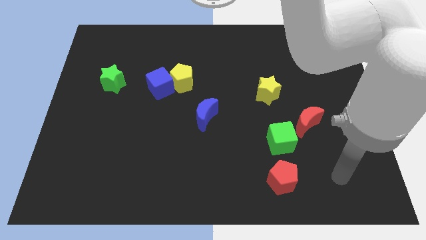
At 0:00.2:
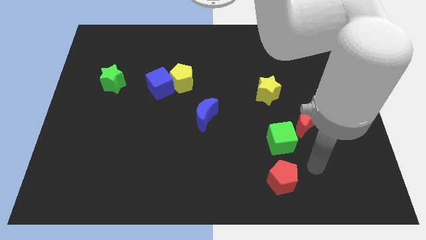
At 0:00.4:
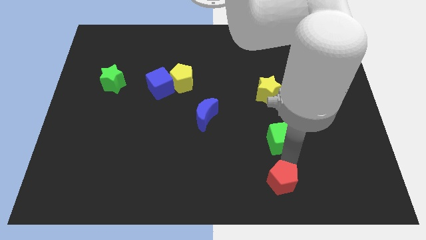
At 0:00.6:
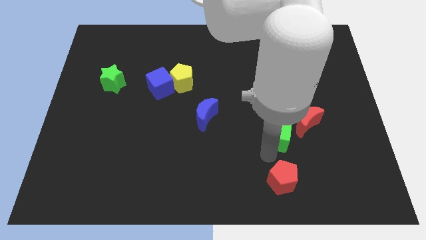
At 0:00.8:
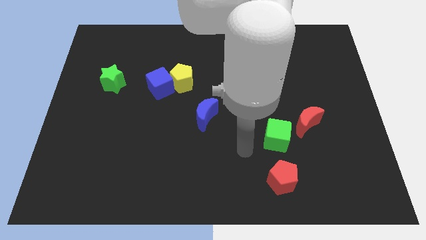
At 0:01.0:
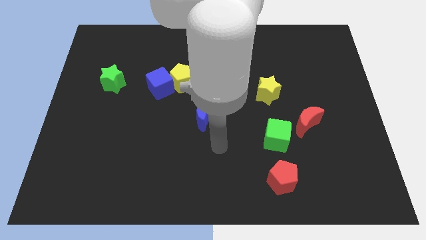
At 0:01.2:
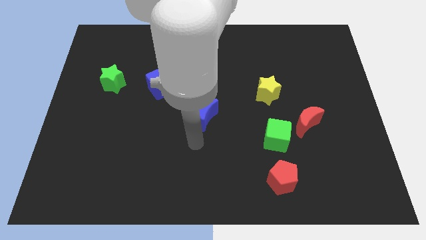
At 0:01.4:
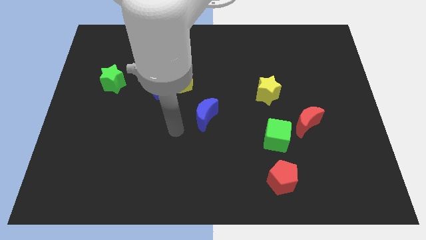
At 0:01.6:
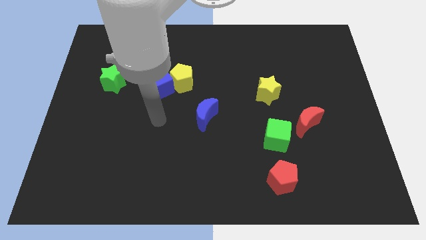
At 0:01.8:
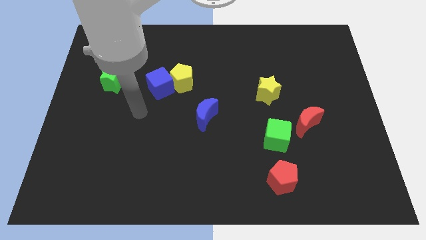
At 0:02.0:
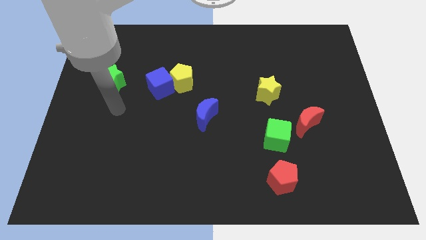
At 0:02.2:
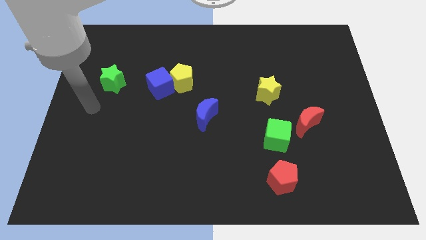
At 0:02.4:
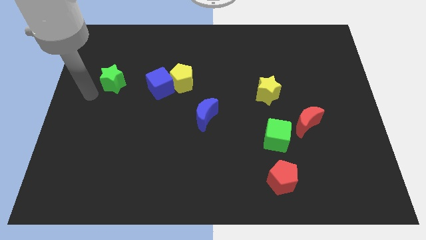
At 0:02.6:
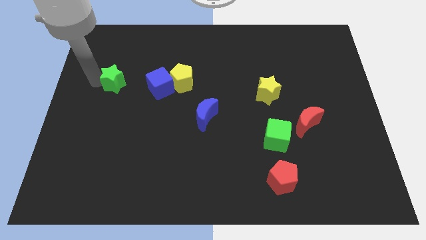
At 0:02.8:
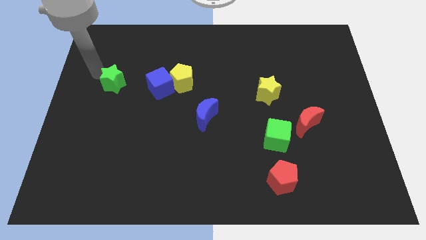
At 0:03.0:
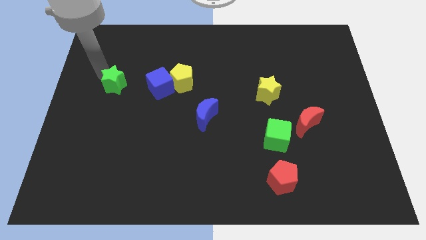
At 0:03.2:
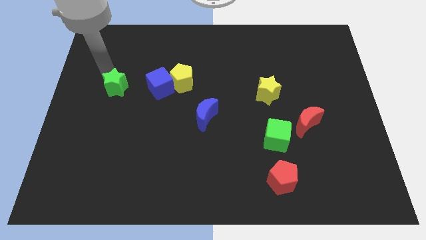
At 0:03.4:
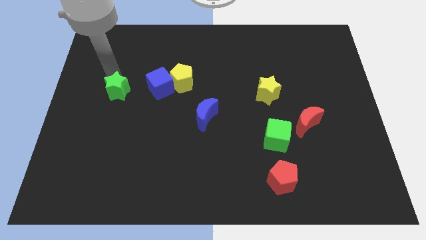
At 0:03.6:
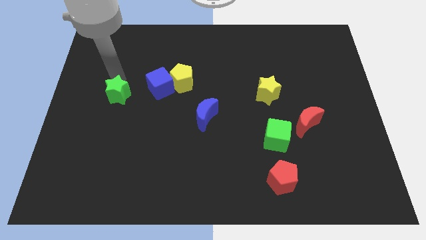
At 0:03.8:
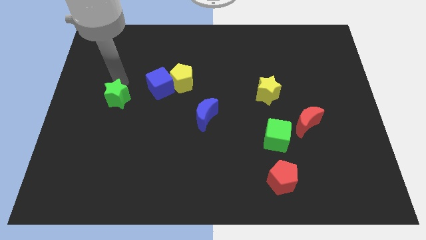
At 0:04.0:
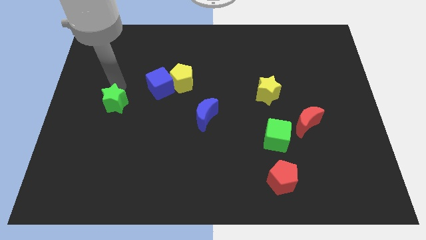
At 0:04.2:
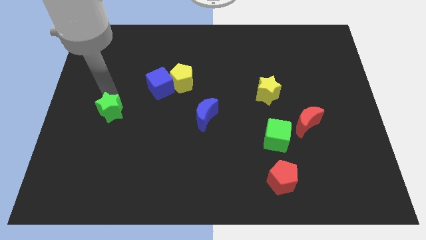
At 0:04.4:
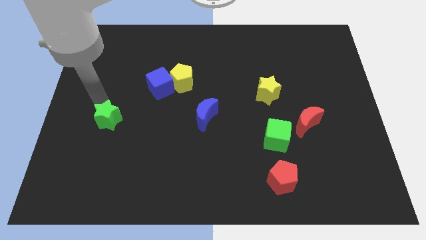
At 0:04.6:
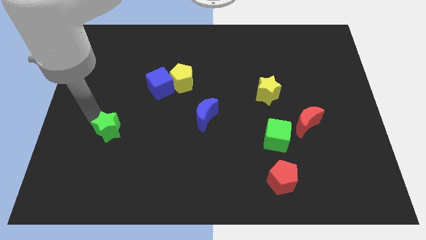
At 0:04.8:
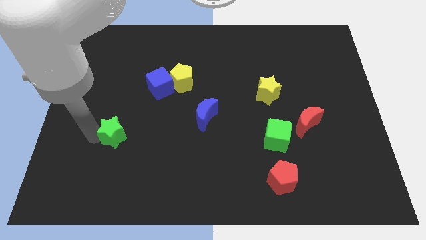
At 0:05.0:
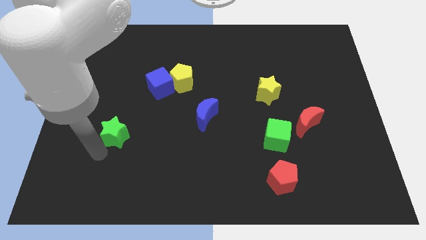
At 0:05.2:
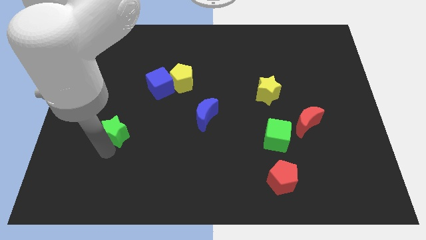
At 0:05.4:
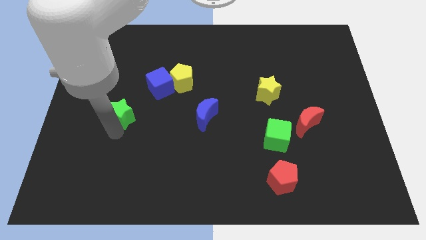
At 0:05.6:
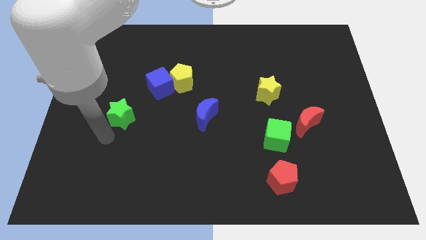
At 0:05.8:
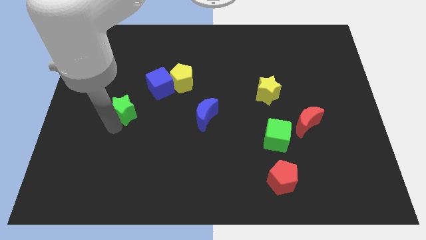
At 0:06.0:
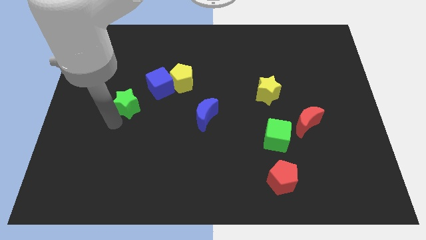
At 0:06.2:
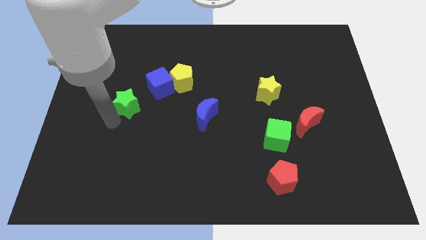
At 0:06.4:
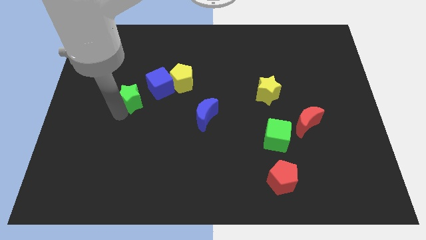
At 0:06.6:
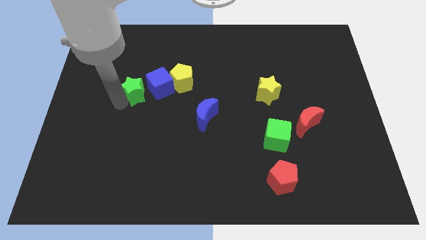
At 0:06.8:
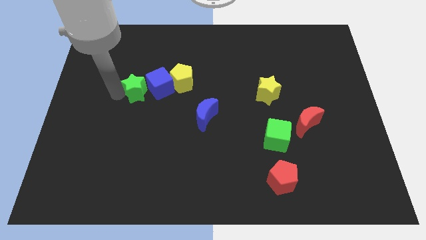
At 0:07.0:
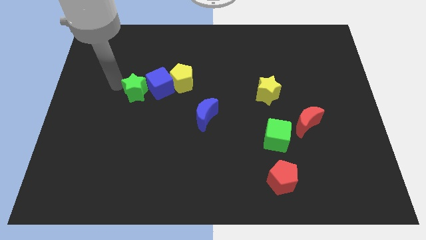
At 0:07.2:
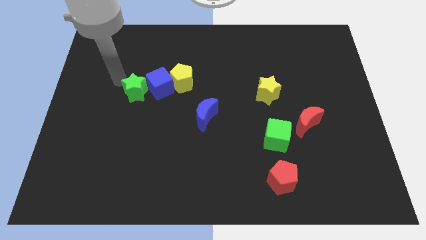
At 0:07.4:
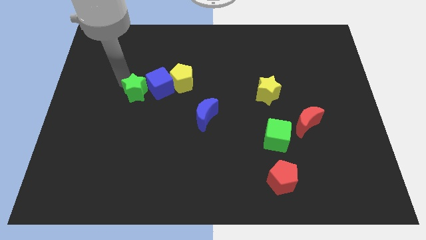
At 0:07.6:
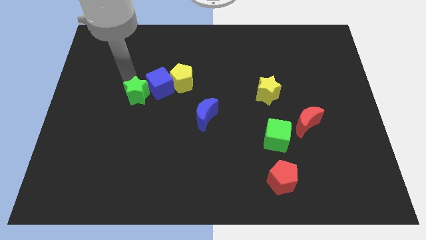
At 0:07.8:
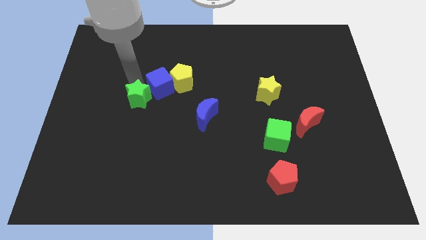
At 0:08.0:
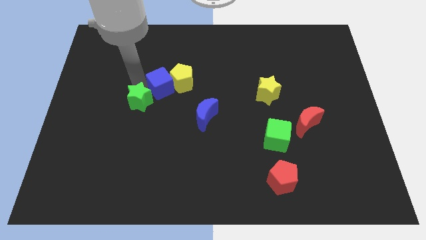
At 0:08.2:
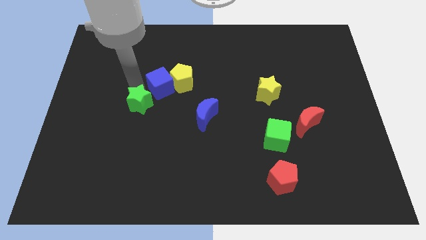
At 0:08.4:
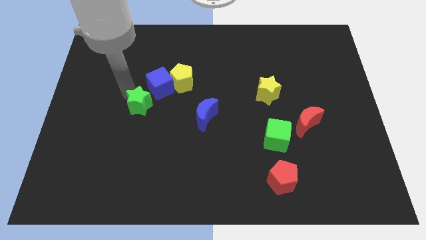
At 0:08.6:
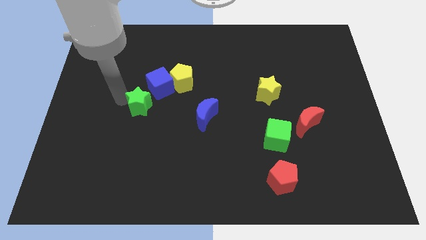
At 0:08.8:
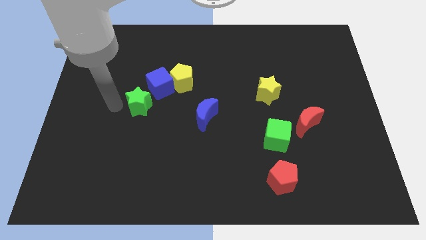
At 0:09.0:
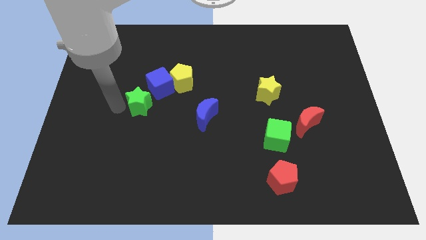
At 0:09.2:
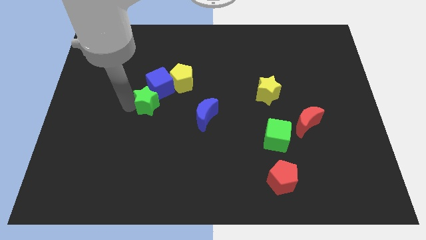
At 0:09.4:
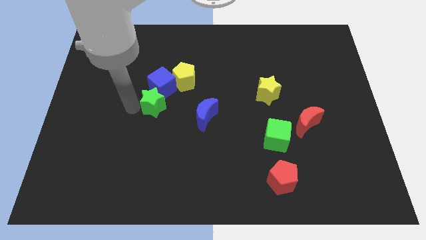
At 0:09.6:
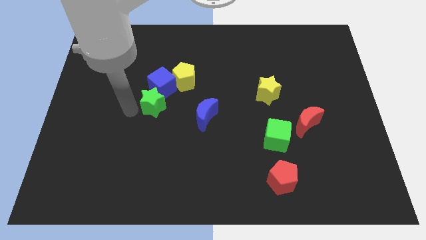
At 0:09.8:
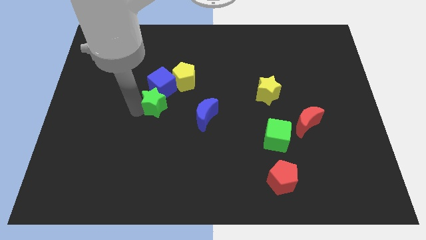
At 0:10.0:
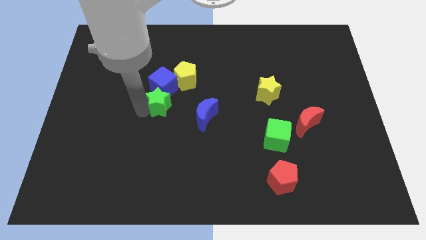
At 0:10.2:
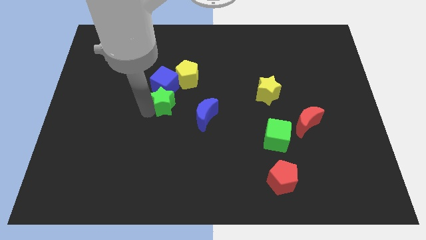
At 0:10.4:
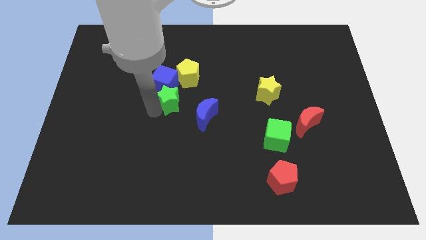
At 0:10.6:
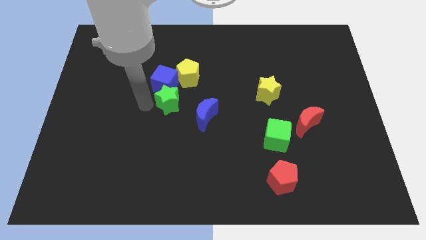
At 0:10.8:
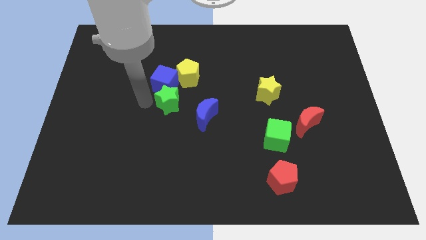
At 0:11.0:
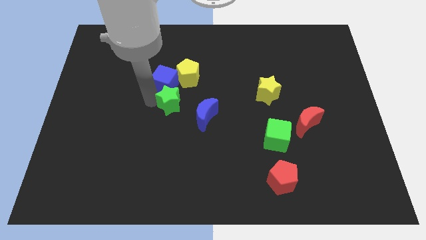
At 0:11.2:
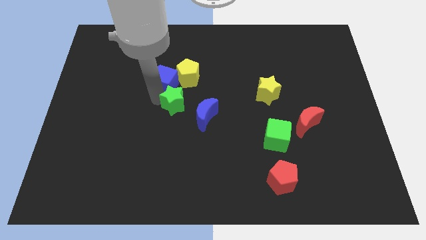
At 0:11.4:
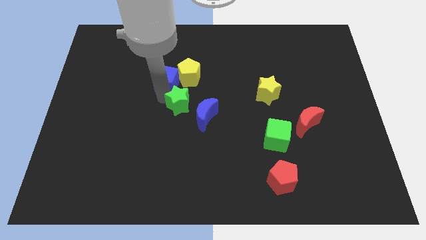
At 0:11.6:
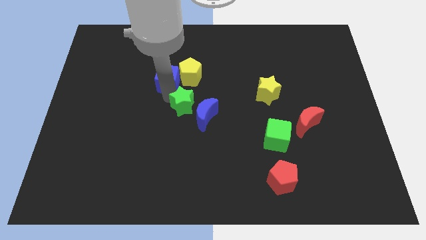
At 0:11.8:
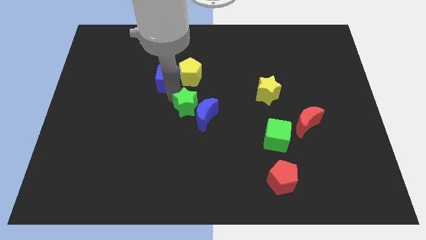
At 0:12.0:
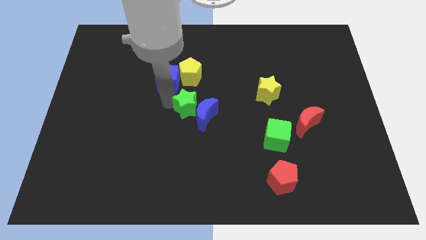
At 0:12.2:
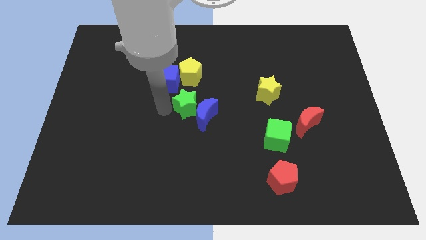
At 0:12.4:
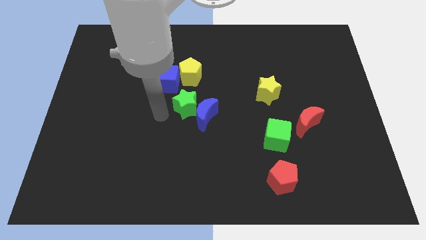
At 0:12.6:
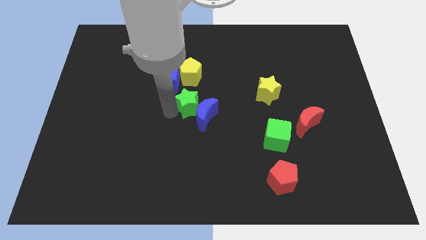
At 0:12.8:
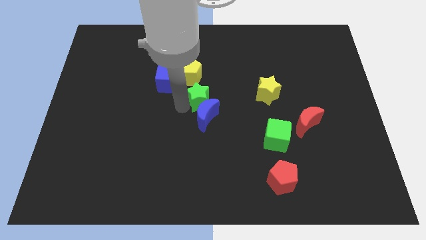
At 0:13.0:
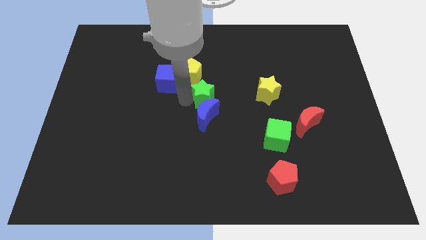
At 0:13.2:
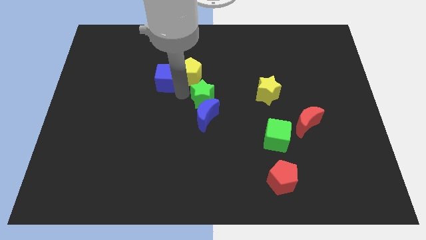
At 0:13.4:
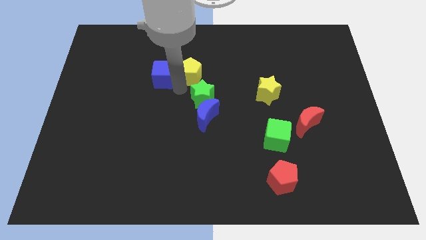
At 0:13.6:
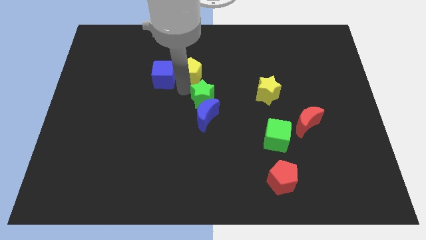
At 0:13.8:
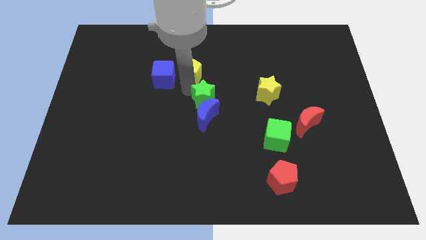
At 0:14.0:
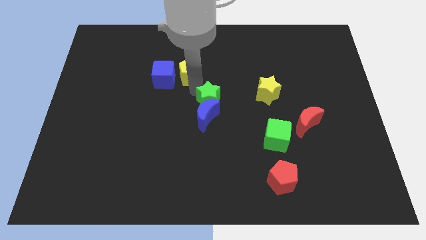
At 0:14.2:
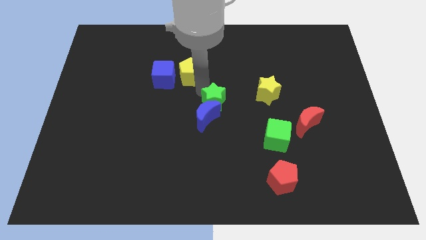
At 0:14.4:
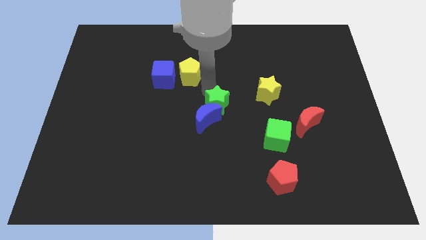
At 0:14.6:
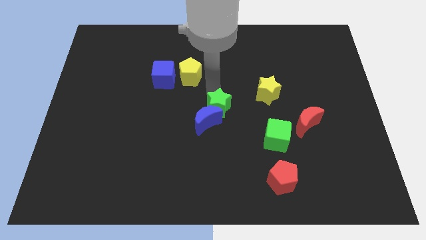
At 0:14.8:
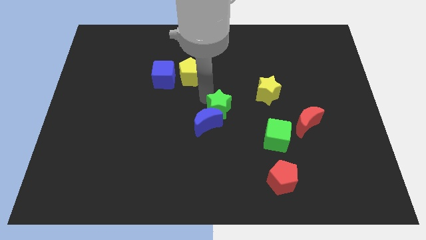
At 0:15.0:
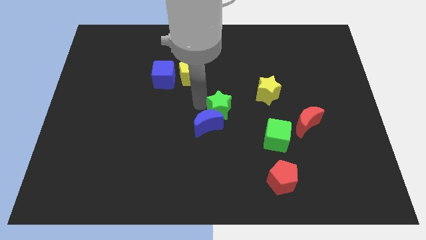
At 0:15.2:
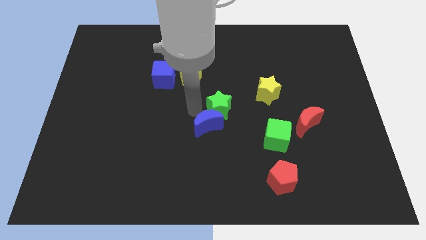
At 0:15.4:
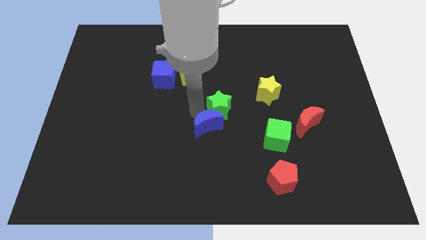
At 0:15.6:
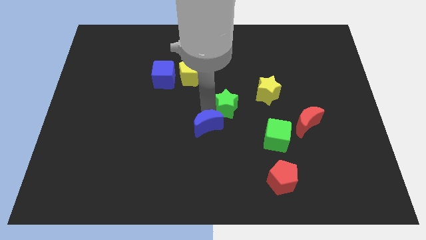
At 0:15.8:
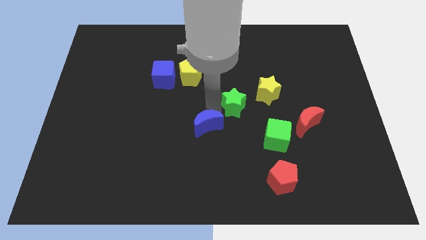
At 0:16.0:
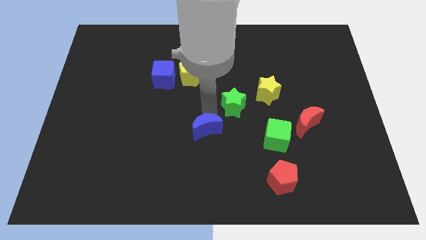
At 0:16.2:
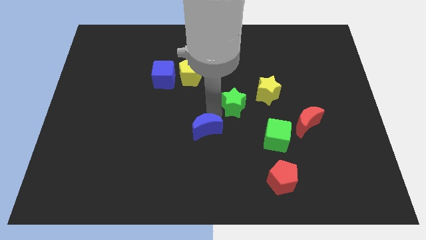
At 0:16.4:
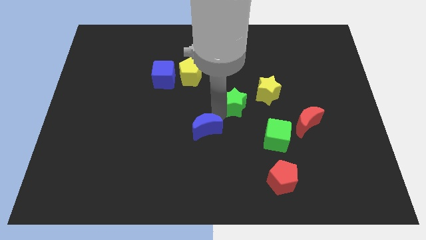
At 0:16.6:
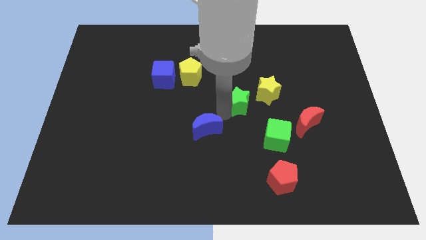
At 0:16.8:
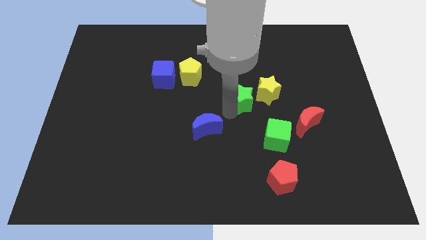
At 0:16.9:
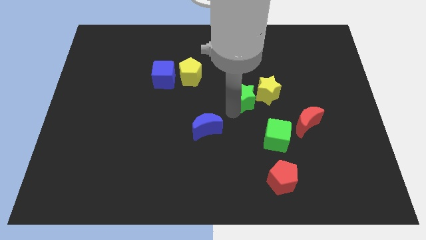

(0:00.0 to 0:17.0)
slide the green star to the yellow star
